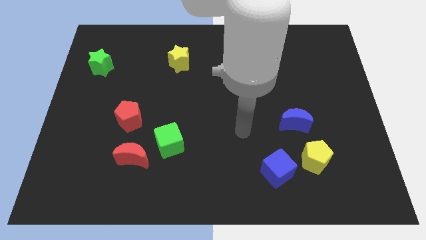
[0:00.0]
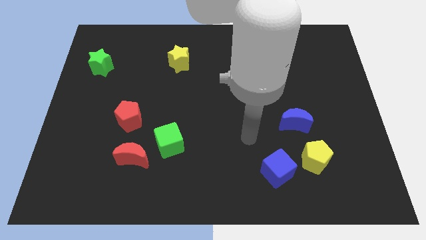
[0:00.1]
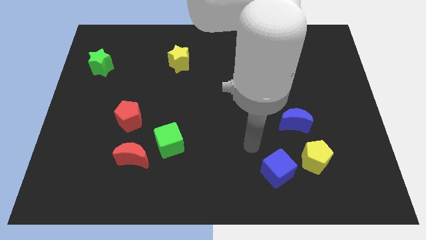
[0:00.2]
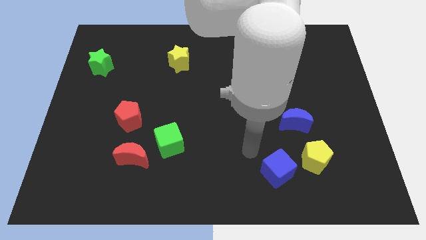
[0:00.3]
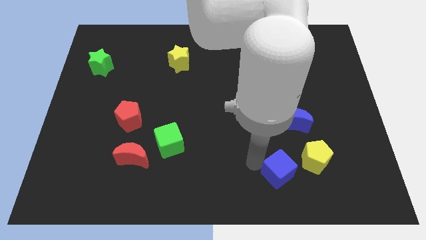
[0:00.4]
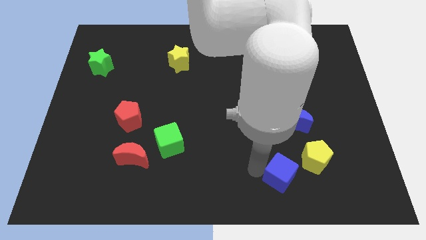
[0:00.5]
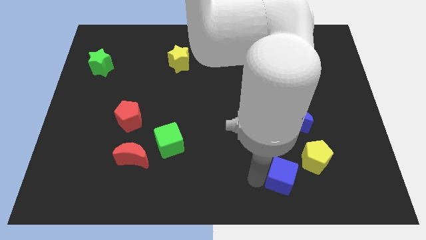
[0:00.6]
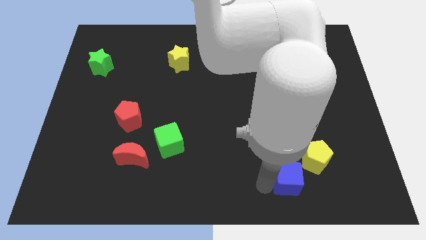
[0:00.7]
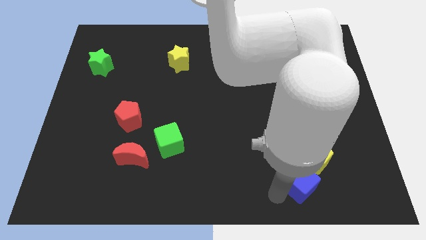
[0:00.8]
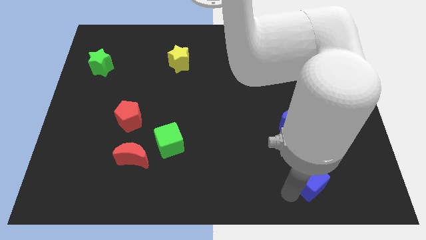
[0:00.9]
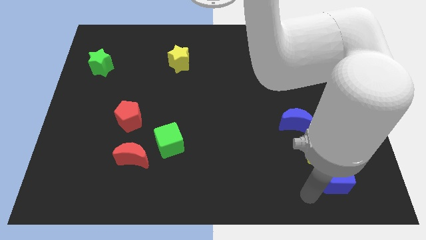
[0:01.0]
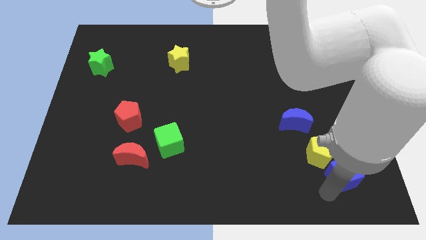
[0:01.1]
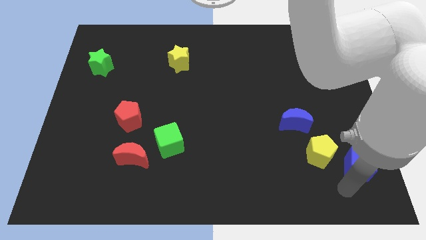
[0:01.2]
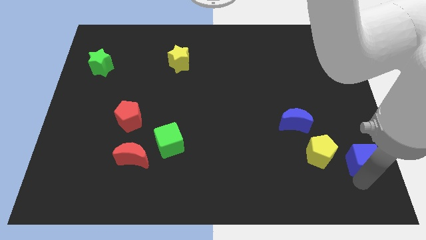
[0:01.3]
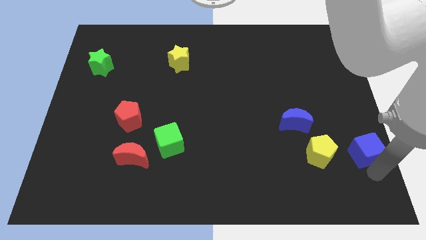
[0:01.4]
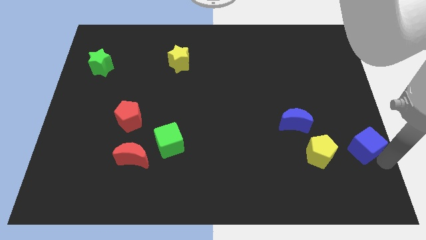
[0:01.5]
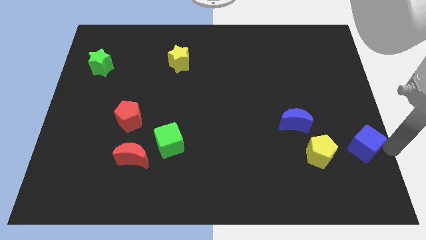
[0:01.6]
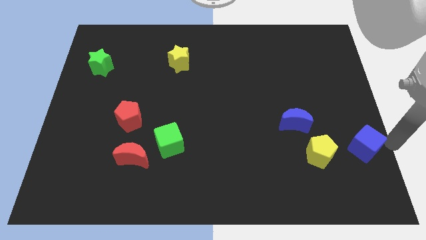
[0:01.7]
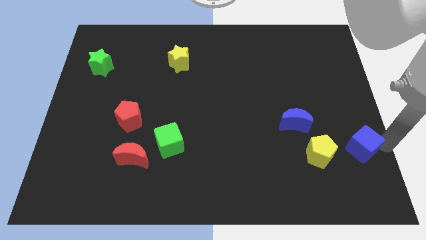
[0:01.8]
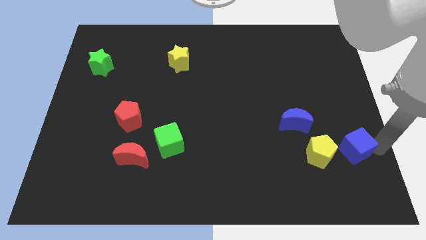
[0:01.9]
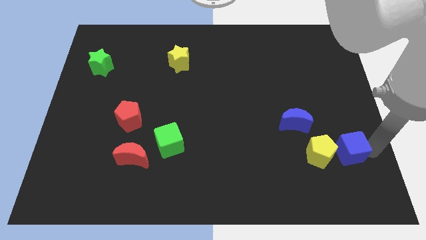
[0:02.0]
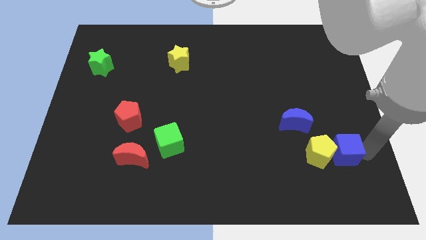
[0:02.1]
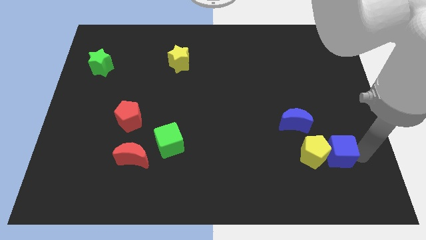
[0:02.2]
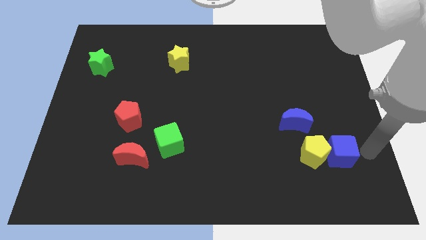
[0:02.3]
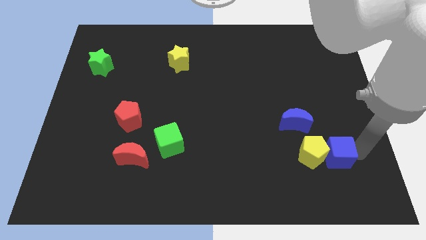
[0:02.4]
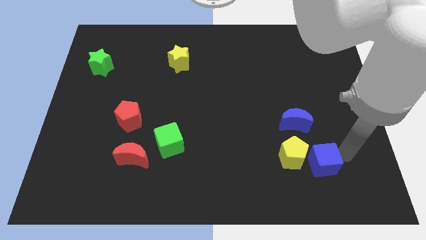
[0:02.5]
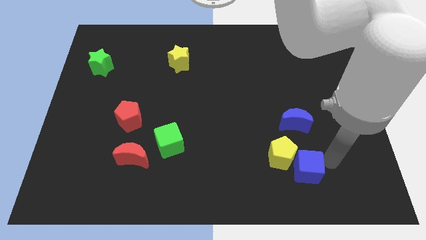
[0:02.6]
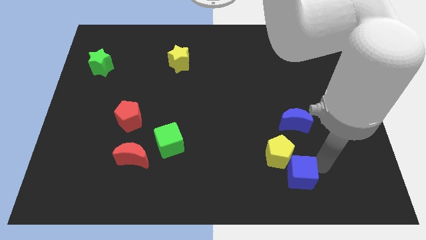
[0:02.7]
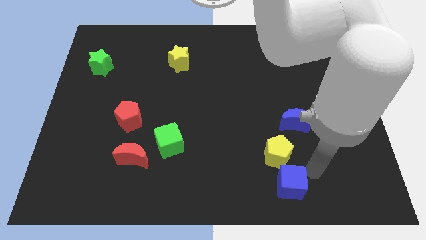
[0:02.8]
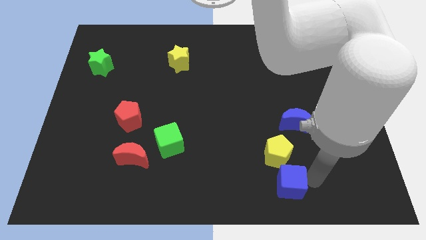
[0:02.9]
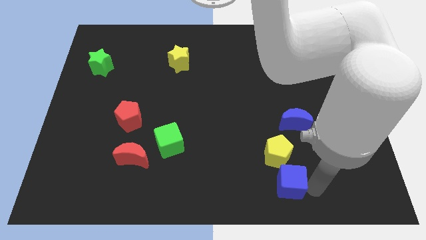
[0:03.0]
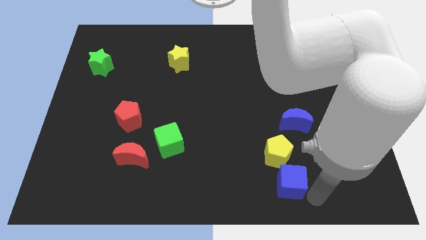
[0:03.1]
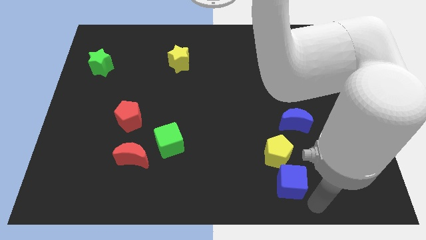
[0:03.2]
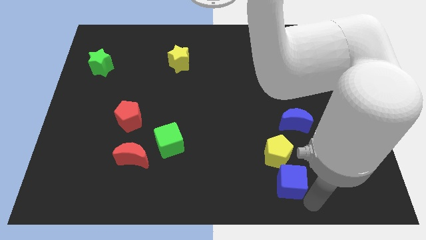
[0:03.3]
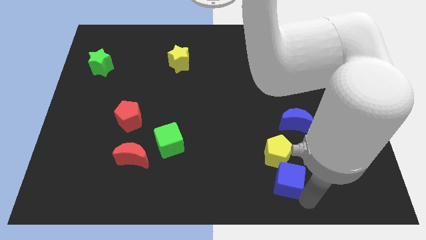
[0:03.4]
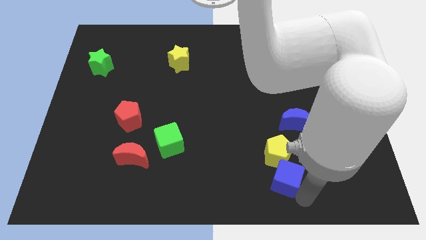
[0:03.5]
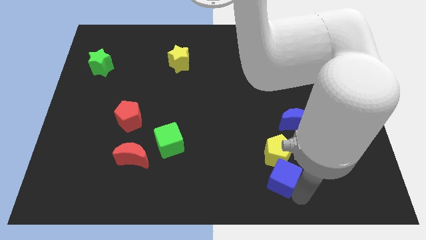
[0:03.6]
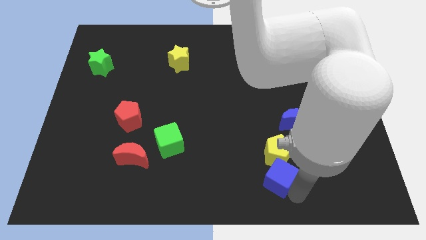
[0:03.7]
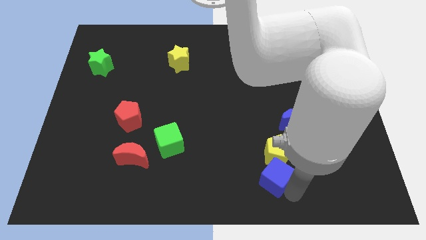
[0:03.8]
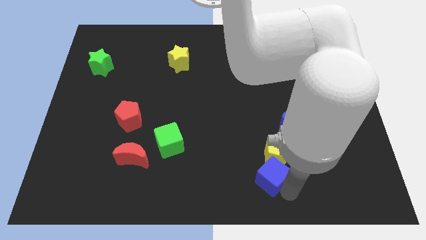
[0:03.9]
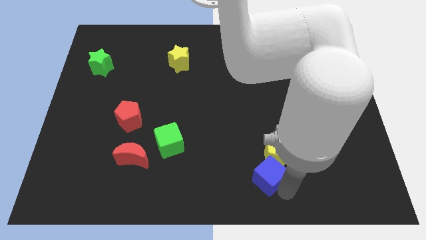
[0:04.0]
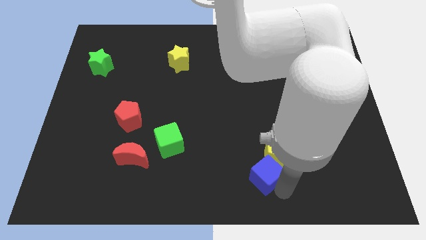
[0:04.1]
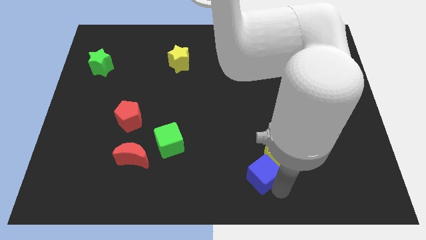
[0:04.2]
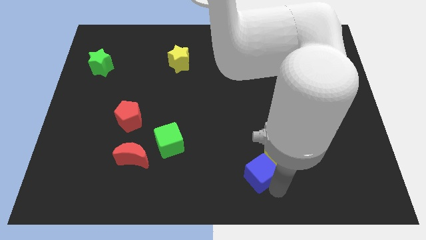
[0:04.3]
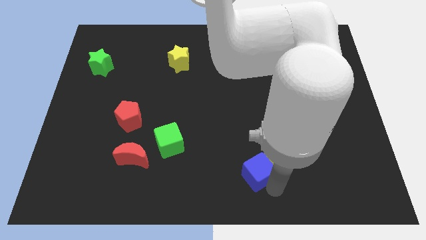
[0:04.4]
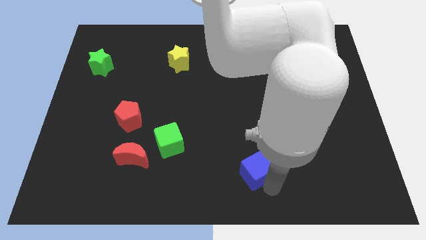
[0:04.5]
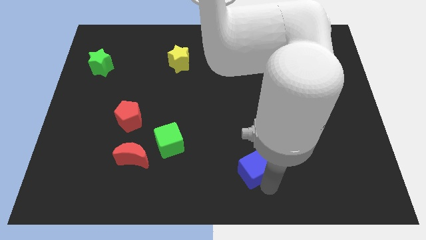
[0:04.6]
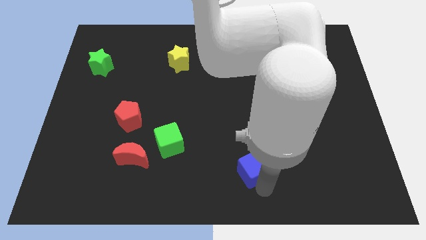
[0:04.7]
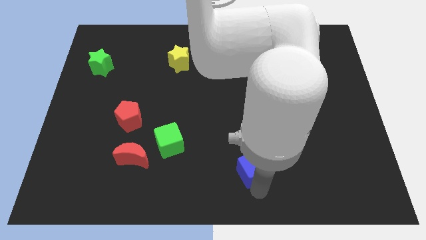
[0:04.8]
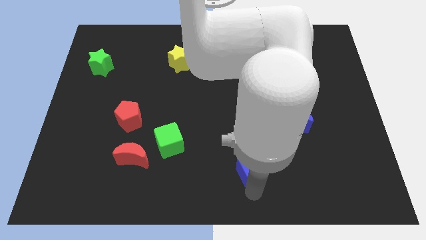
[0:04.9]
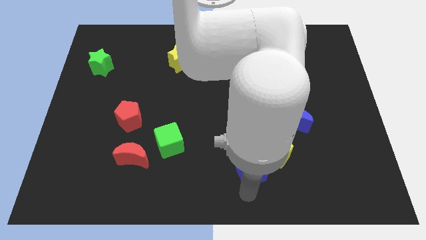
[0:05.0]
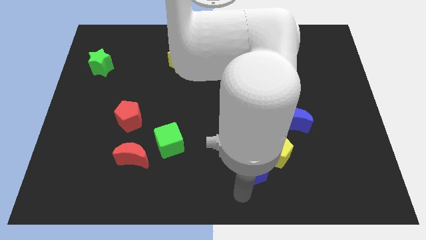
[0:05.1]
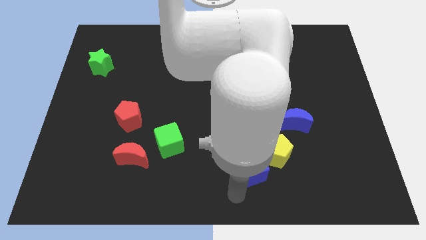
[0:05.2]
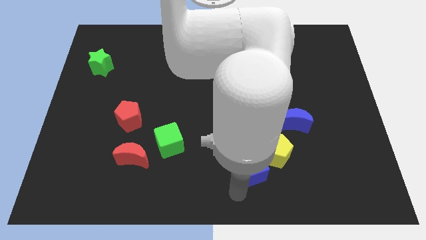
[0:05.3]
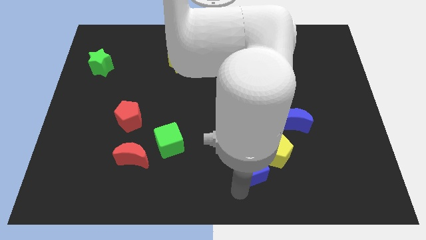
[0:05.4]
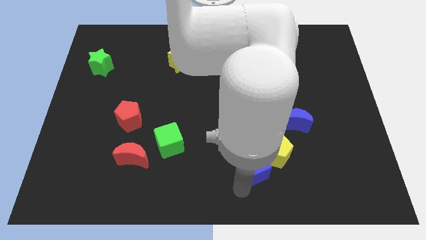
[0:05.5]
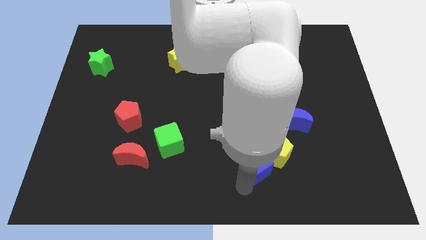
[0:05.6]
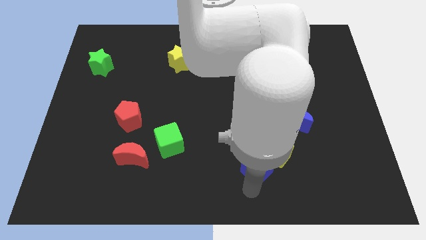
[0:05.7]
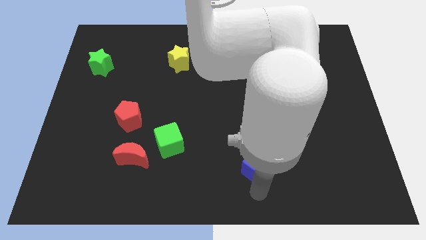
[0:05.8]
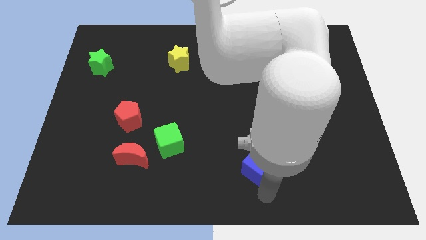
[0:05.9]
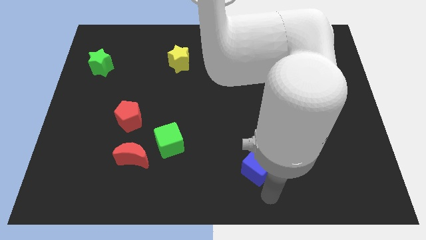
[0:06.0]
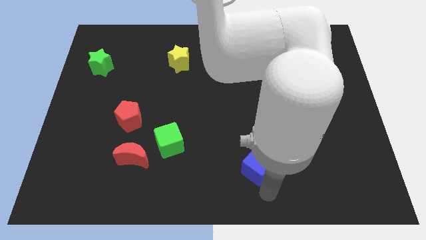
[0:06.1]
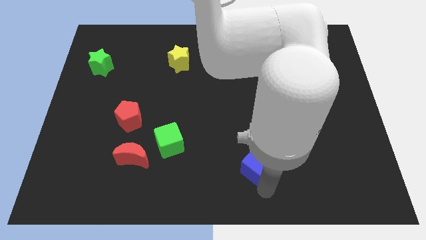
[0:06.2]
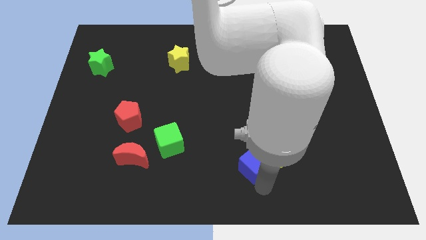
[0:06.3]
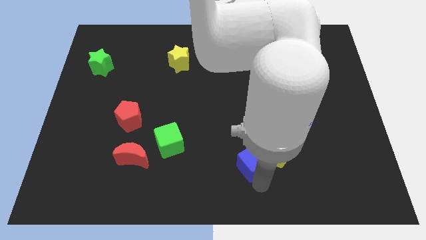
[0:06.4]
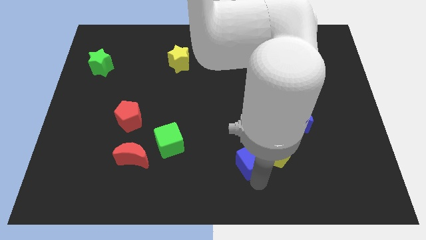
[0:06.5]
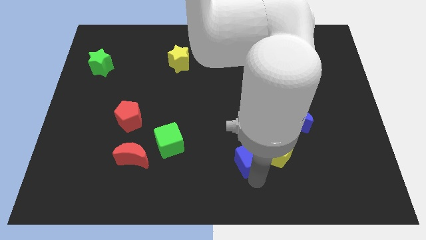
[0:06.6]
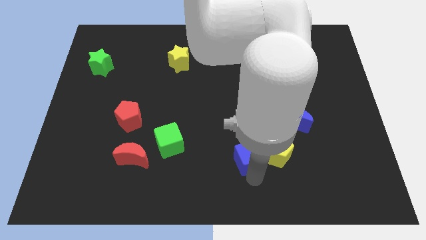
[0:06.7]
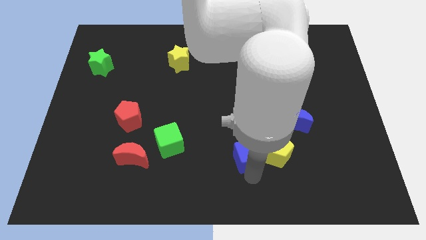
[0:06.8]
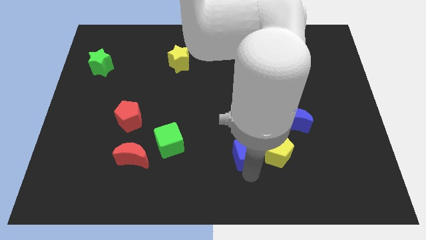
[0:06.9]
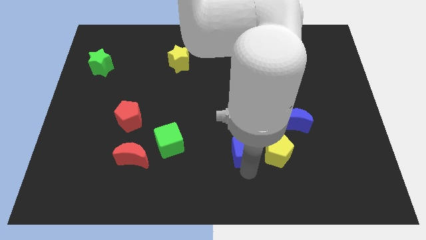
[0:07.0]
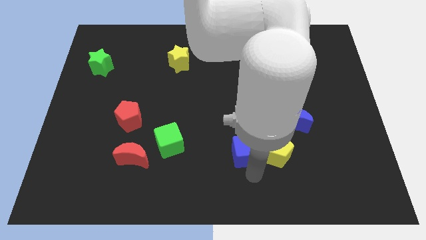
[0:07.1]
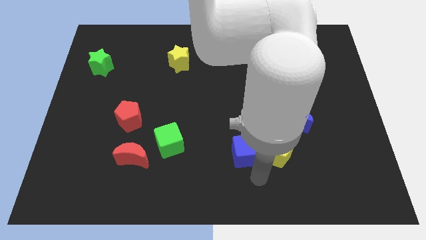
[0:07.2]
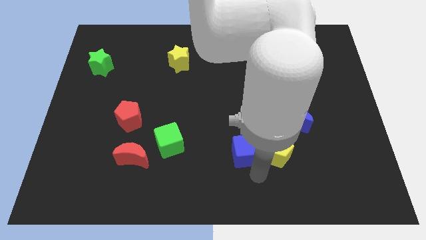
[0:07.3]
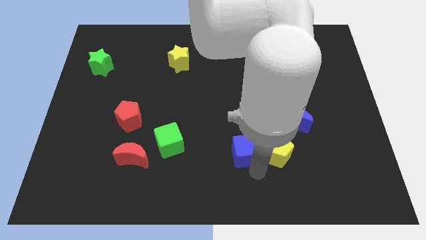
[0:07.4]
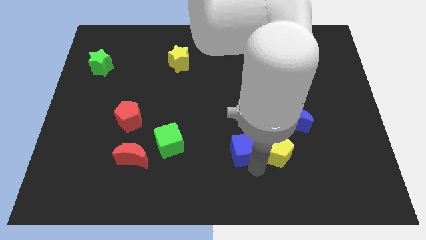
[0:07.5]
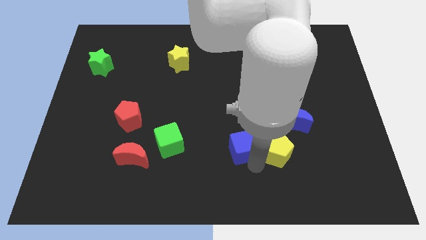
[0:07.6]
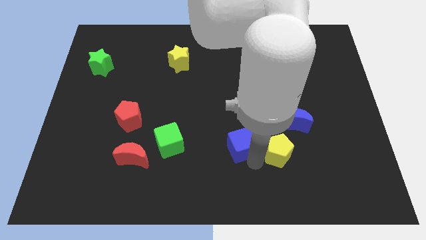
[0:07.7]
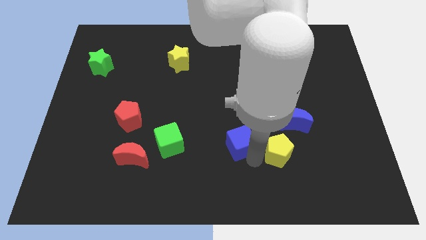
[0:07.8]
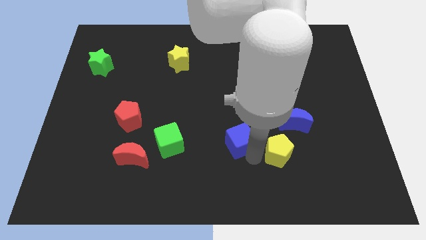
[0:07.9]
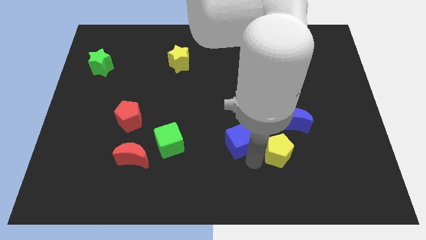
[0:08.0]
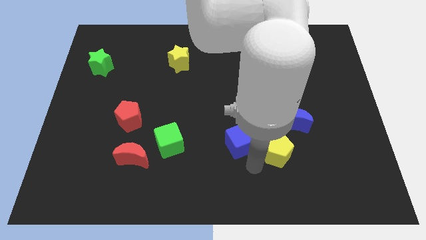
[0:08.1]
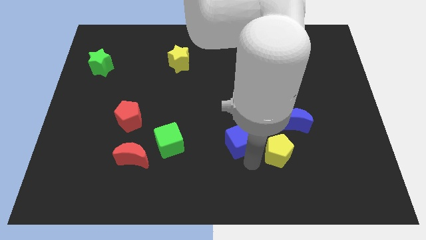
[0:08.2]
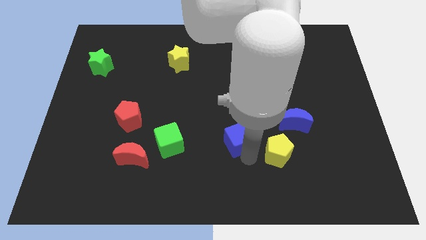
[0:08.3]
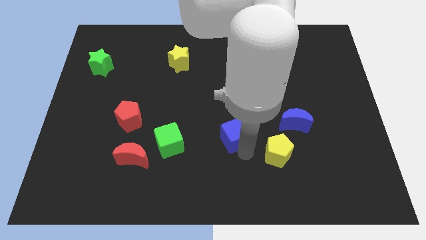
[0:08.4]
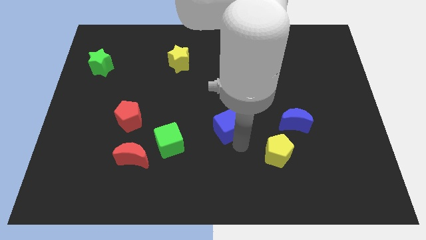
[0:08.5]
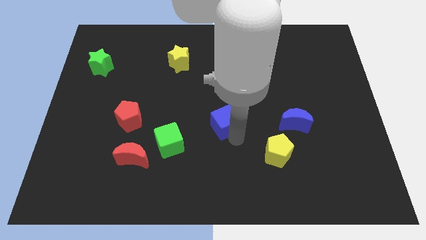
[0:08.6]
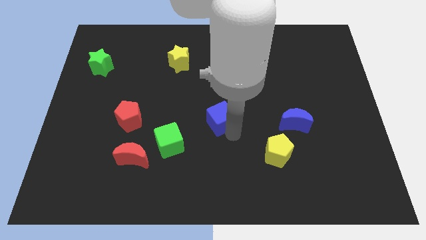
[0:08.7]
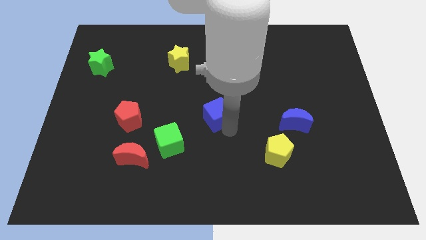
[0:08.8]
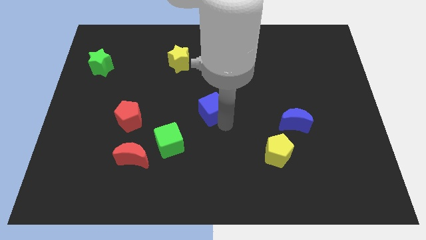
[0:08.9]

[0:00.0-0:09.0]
push the blue cube upwards and left diagonally
